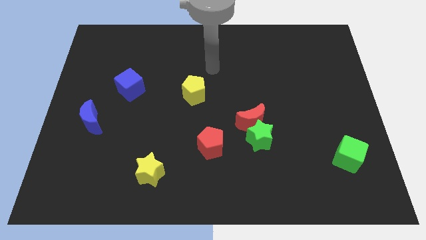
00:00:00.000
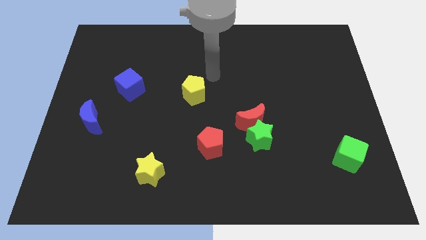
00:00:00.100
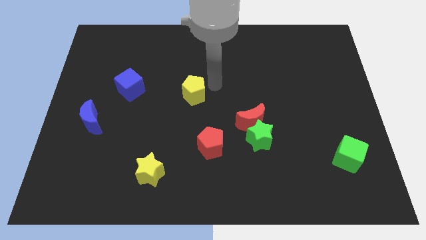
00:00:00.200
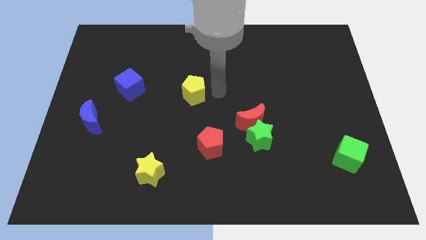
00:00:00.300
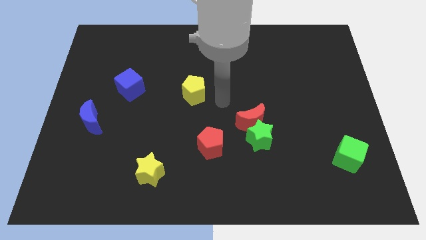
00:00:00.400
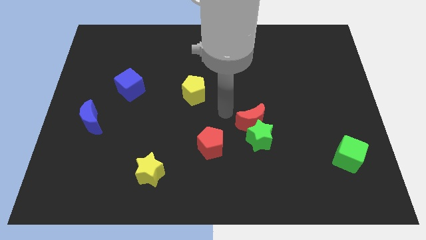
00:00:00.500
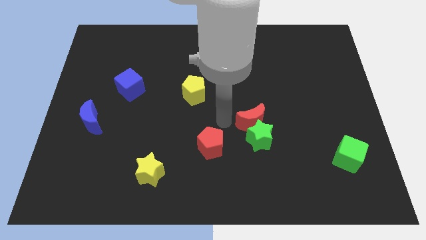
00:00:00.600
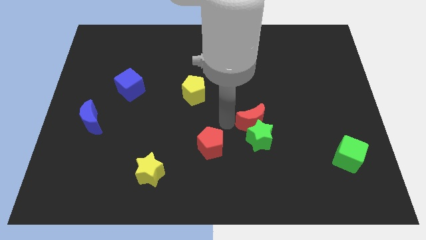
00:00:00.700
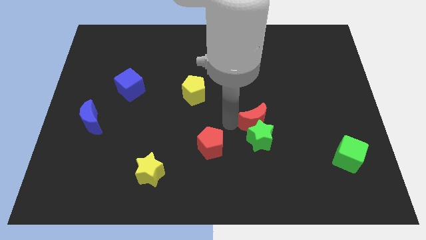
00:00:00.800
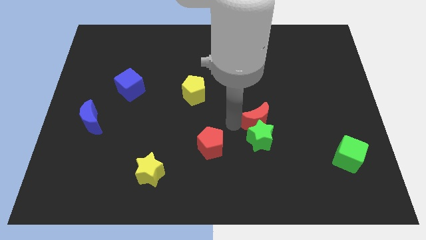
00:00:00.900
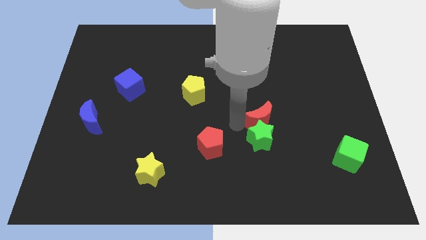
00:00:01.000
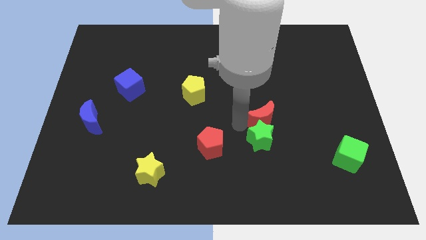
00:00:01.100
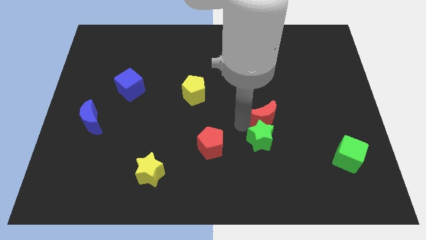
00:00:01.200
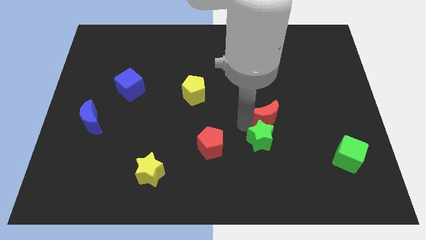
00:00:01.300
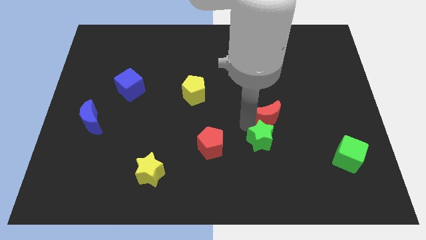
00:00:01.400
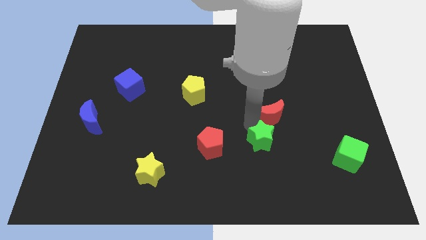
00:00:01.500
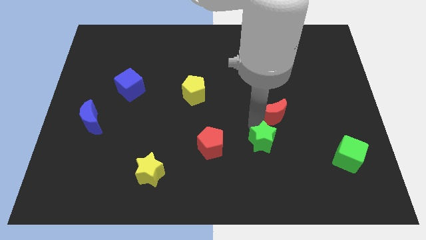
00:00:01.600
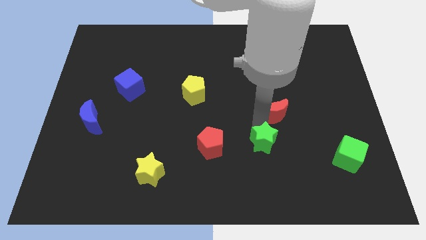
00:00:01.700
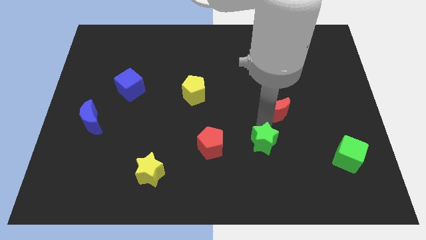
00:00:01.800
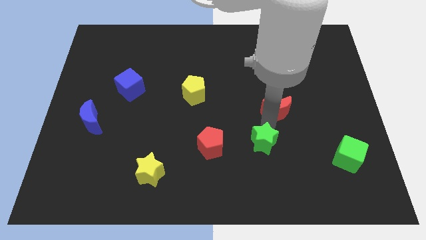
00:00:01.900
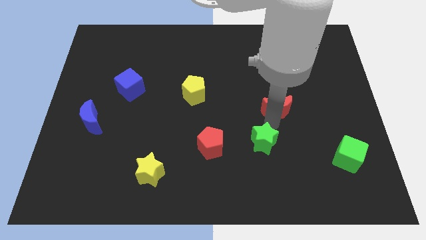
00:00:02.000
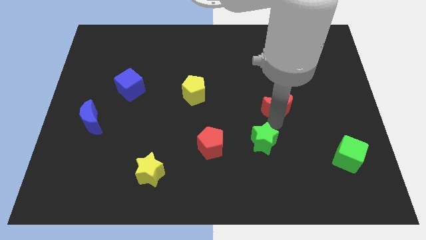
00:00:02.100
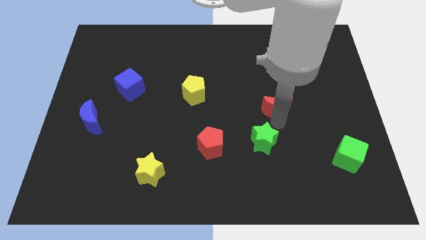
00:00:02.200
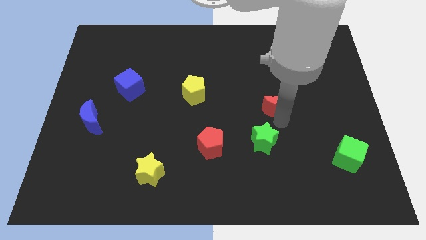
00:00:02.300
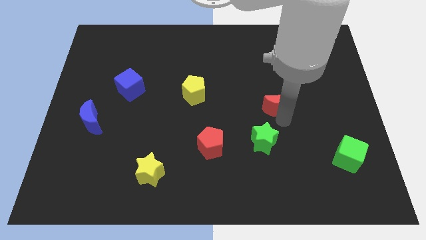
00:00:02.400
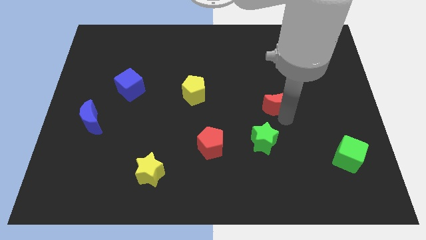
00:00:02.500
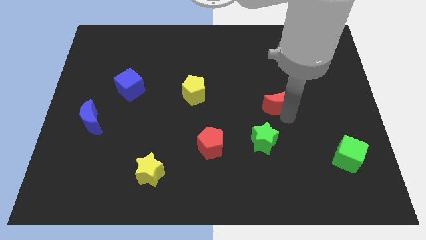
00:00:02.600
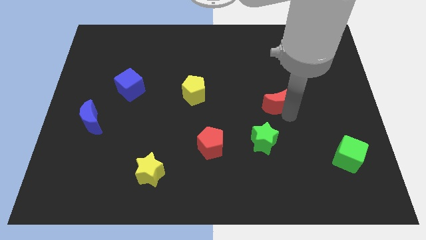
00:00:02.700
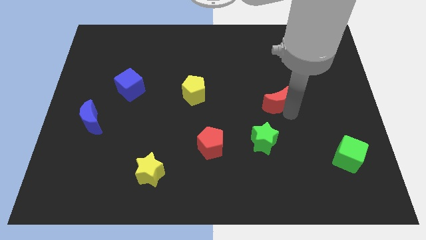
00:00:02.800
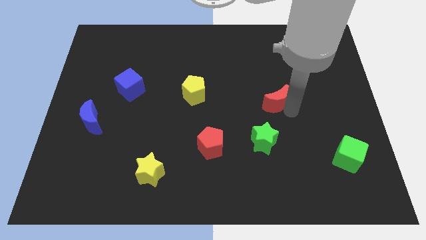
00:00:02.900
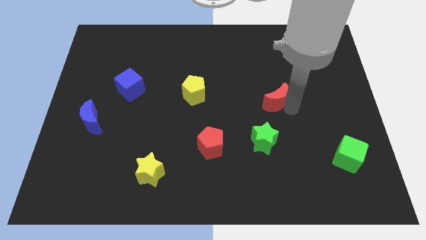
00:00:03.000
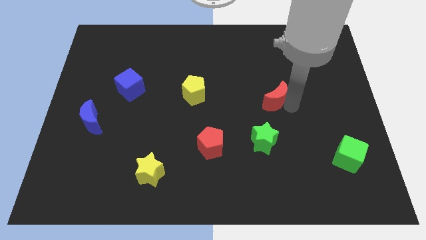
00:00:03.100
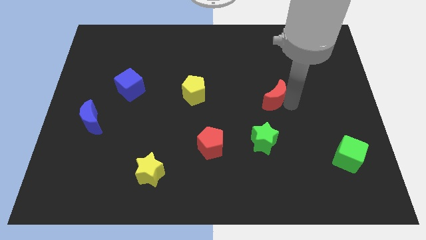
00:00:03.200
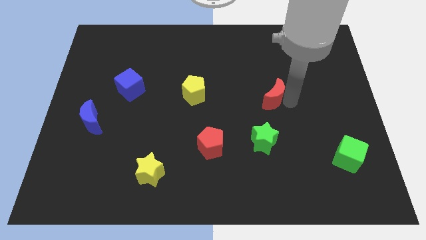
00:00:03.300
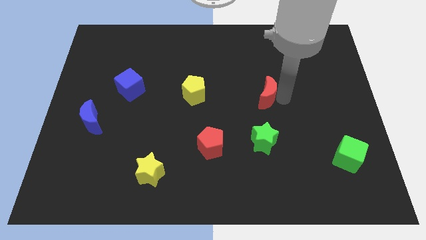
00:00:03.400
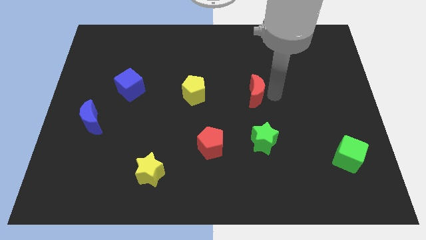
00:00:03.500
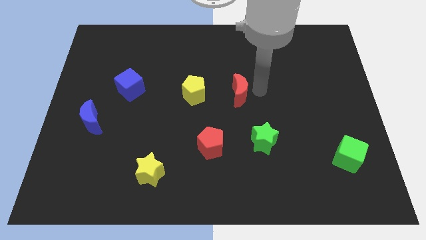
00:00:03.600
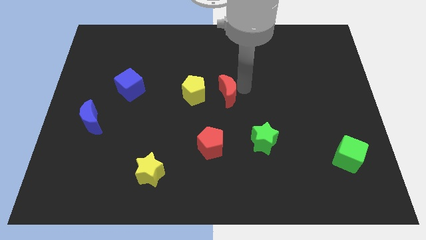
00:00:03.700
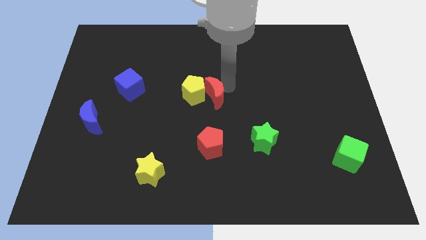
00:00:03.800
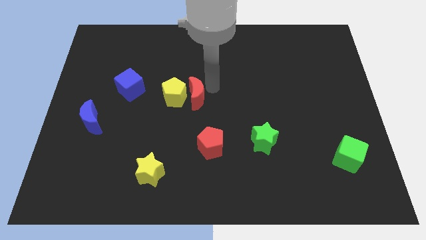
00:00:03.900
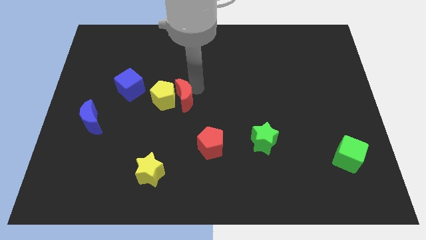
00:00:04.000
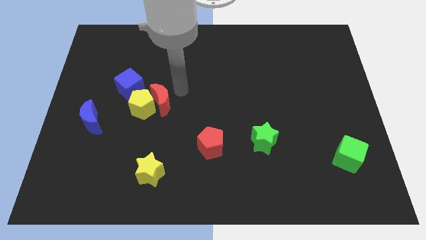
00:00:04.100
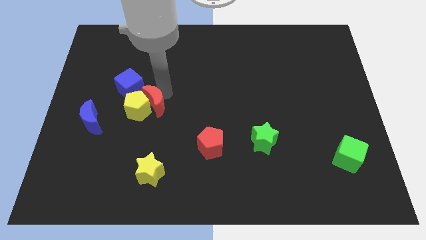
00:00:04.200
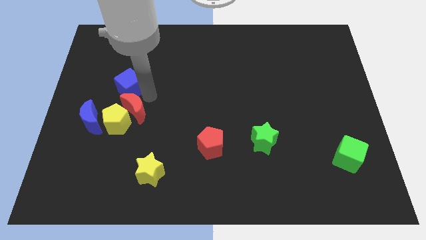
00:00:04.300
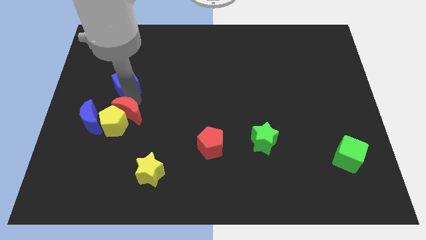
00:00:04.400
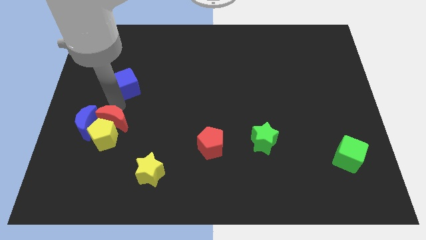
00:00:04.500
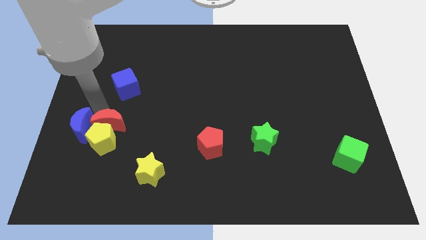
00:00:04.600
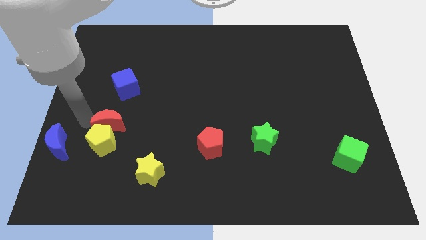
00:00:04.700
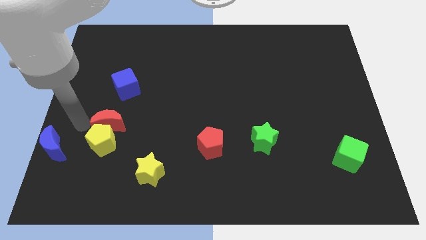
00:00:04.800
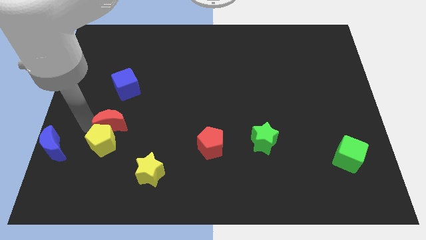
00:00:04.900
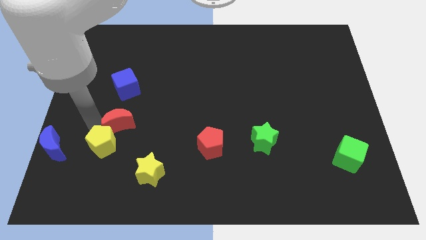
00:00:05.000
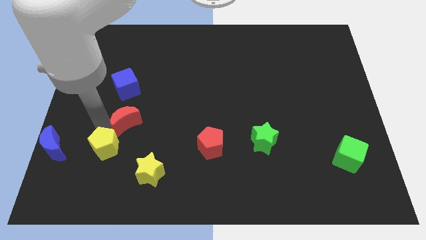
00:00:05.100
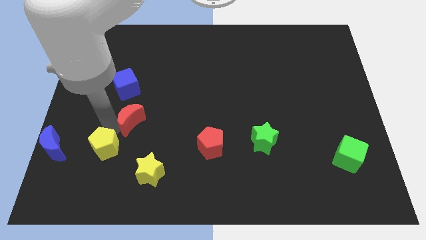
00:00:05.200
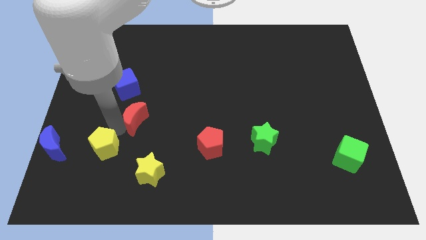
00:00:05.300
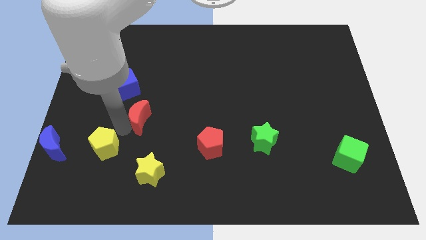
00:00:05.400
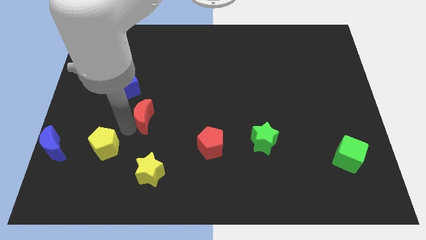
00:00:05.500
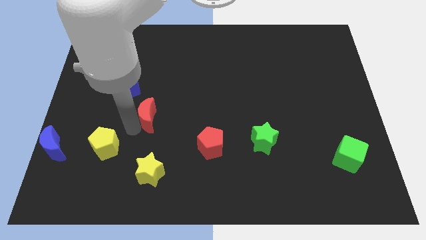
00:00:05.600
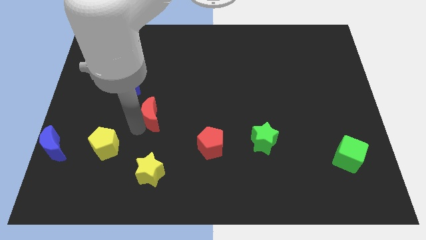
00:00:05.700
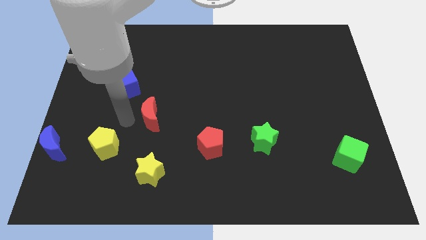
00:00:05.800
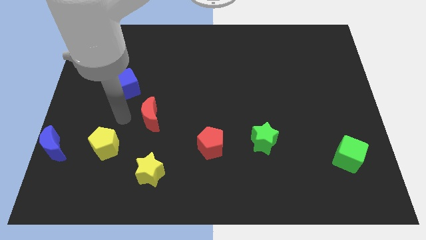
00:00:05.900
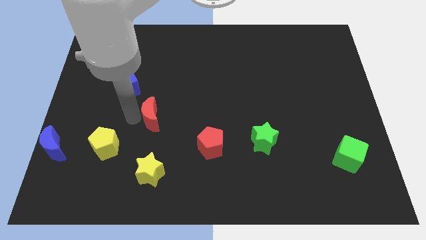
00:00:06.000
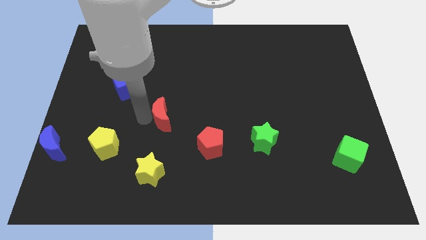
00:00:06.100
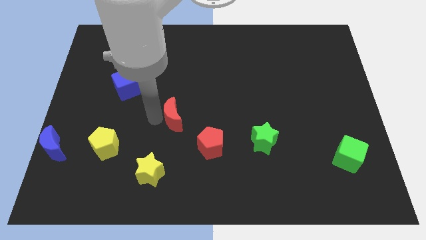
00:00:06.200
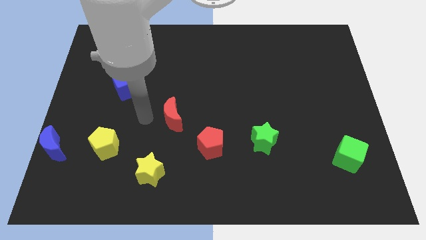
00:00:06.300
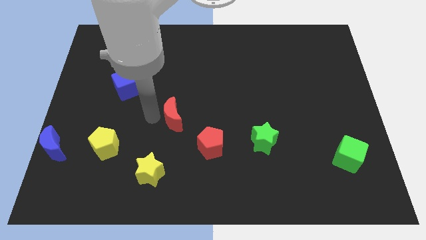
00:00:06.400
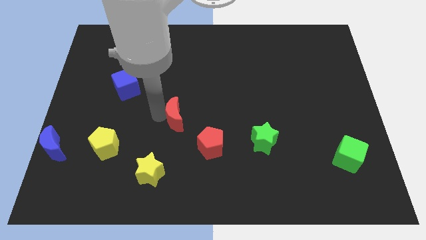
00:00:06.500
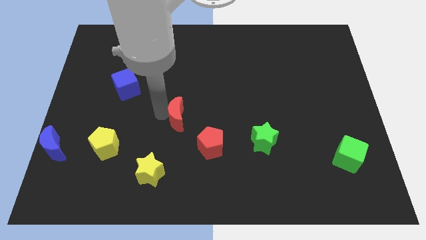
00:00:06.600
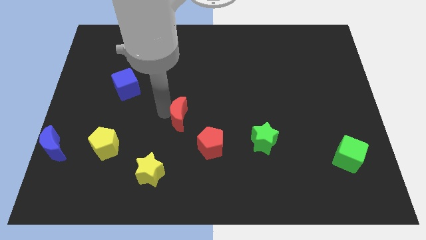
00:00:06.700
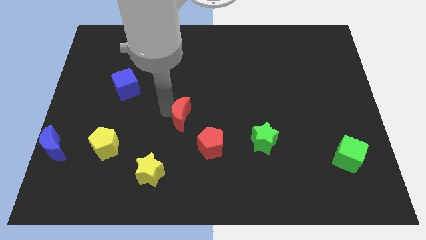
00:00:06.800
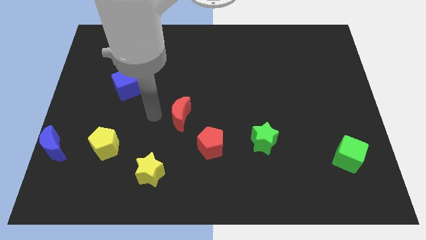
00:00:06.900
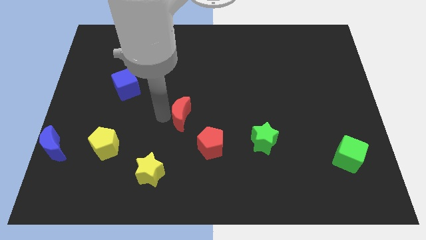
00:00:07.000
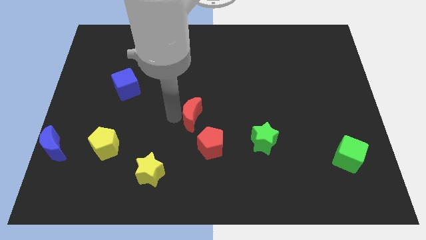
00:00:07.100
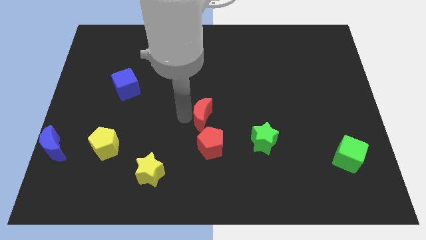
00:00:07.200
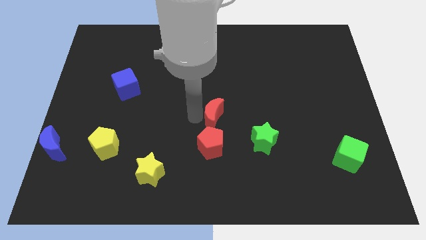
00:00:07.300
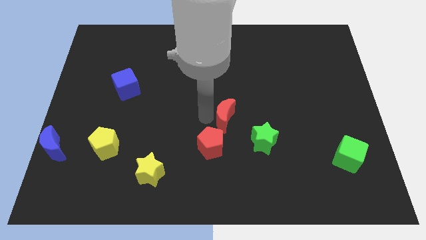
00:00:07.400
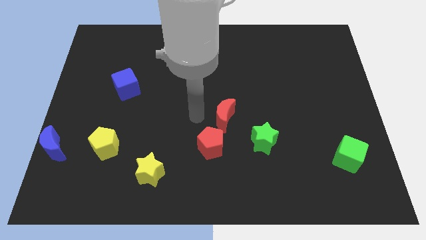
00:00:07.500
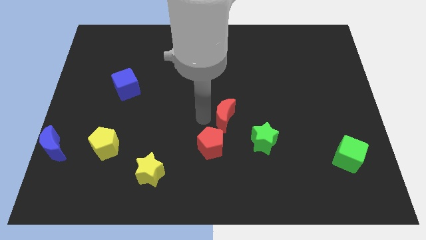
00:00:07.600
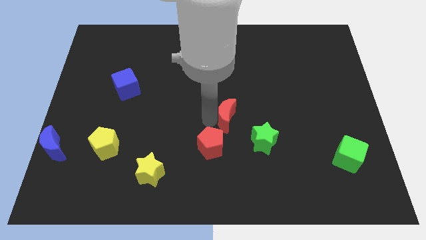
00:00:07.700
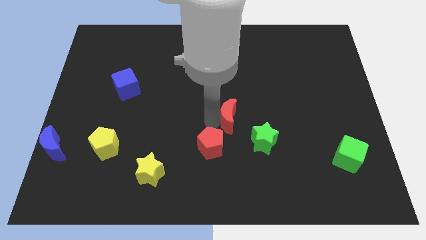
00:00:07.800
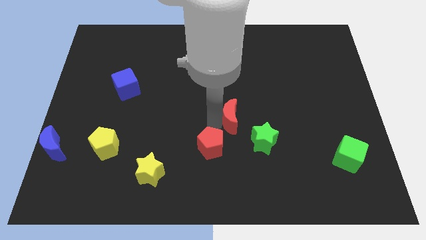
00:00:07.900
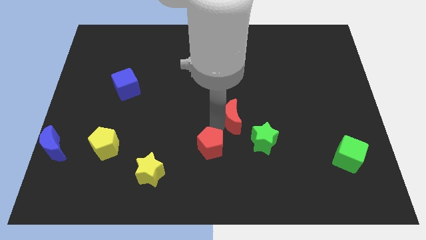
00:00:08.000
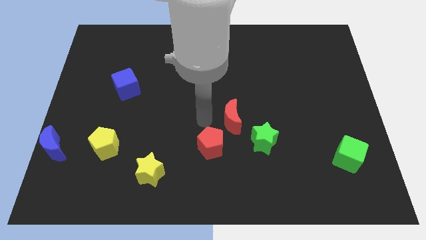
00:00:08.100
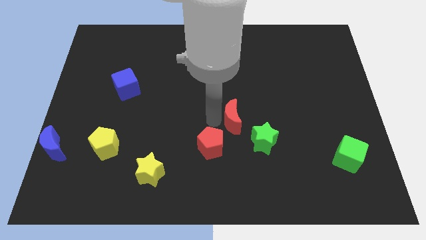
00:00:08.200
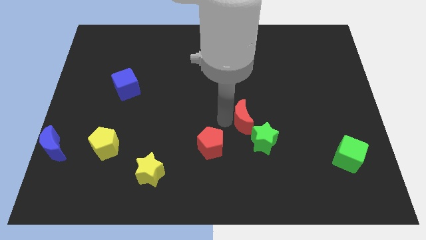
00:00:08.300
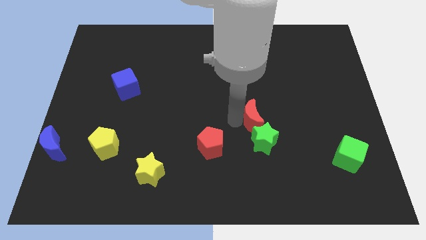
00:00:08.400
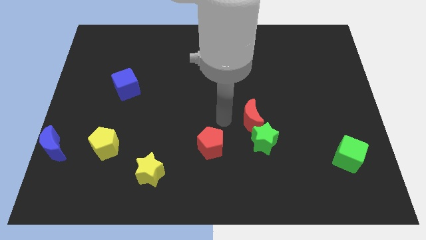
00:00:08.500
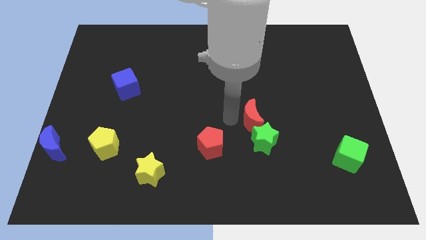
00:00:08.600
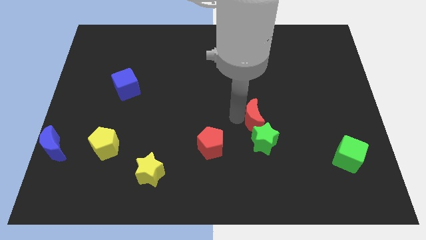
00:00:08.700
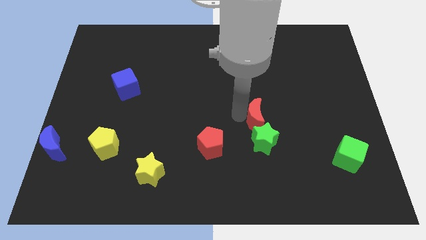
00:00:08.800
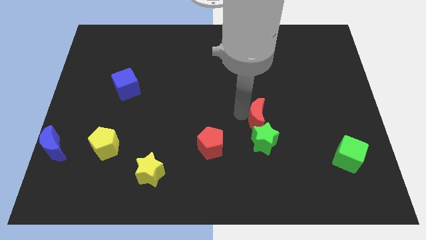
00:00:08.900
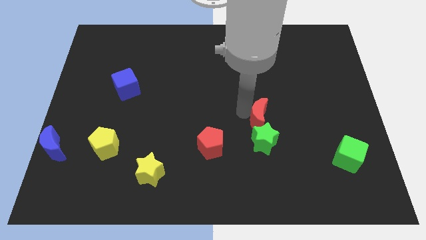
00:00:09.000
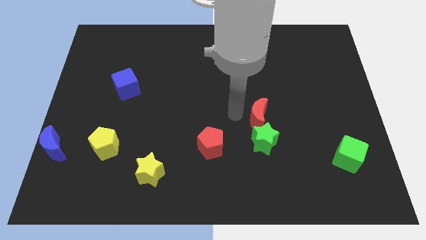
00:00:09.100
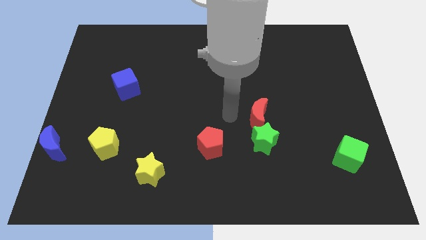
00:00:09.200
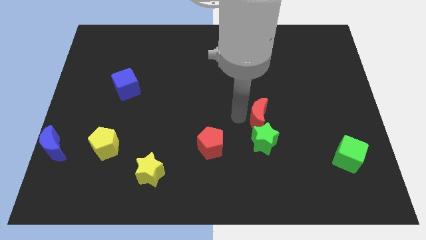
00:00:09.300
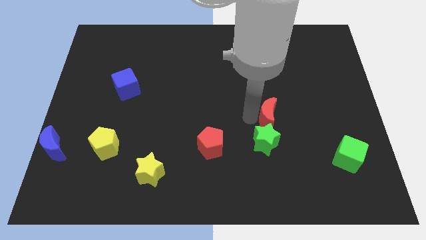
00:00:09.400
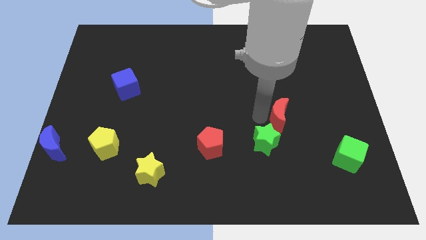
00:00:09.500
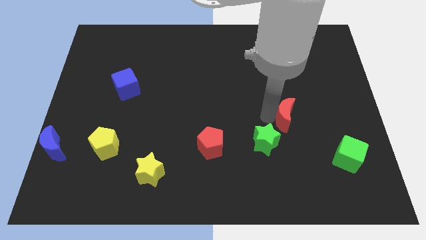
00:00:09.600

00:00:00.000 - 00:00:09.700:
move the red moon a little to the right
